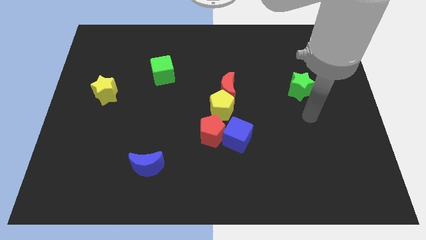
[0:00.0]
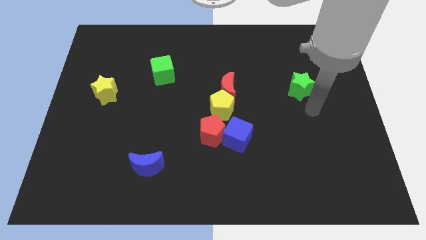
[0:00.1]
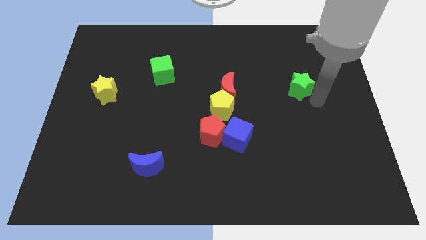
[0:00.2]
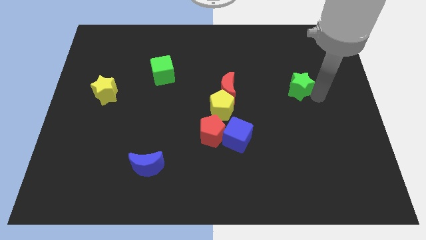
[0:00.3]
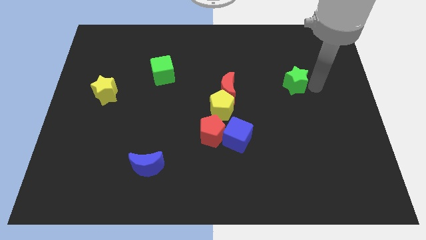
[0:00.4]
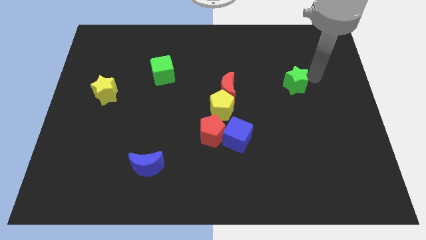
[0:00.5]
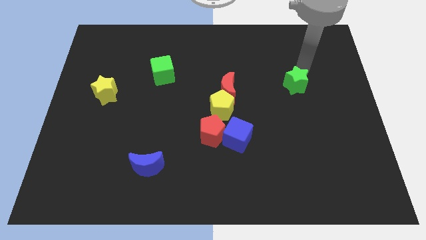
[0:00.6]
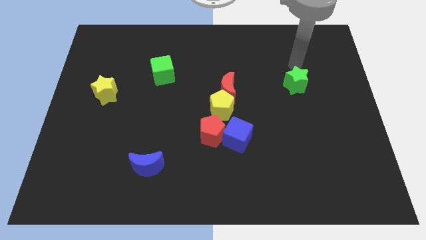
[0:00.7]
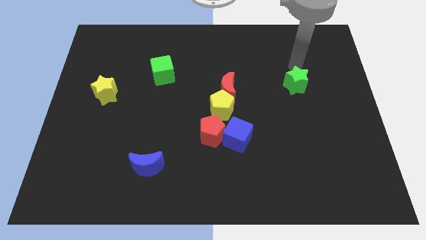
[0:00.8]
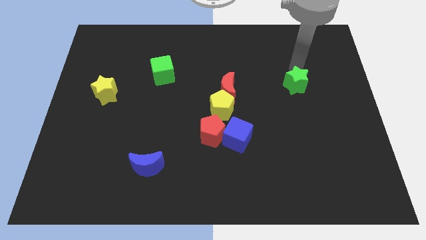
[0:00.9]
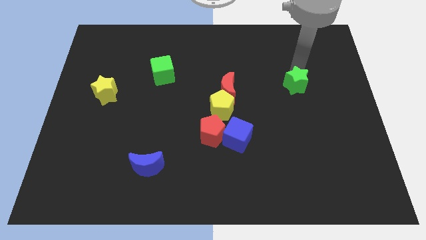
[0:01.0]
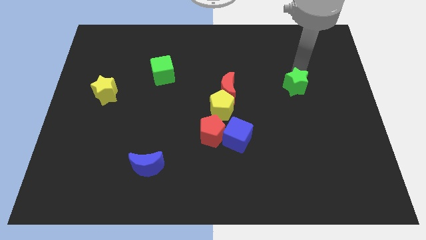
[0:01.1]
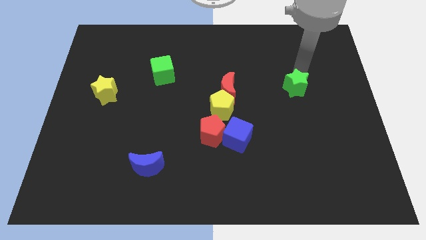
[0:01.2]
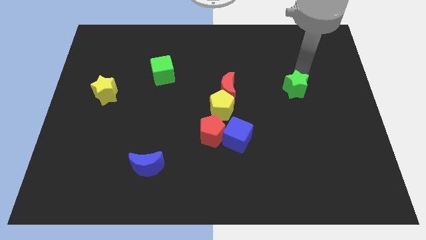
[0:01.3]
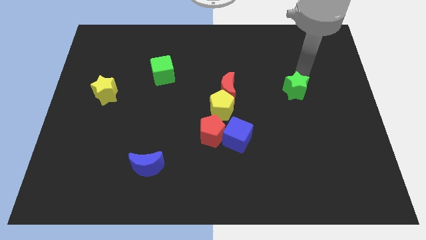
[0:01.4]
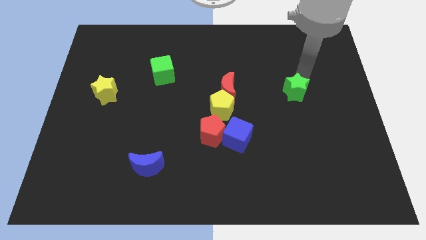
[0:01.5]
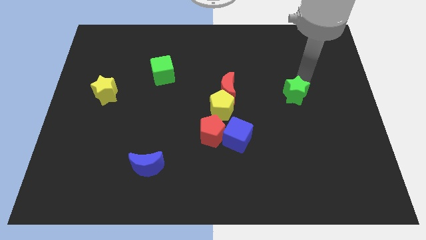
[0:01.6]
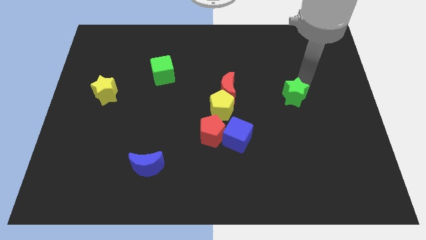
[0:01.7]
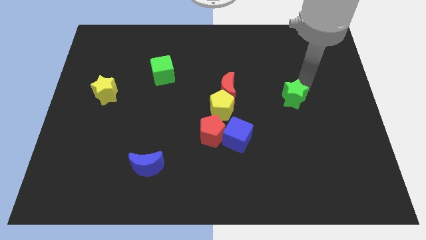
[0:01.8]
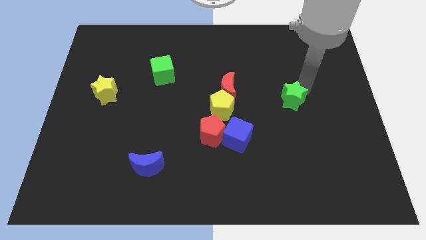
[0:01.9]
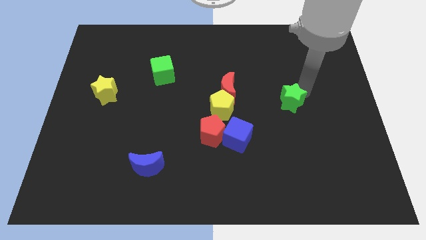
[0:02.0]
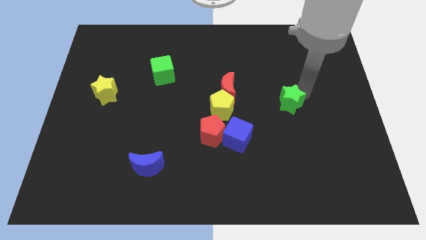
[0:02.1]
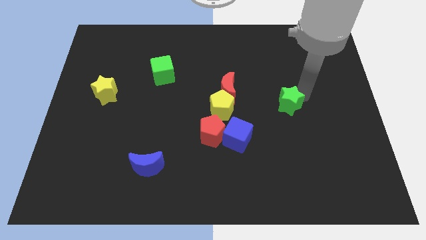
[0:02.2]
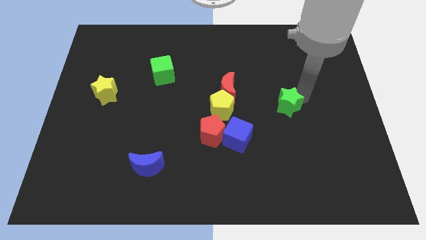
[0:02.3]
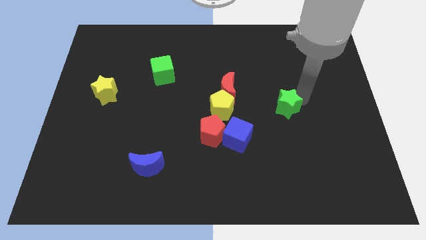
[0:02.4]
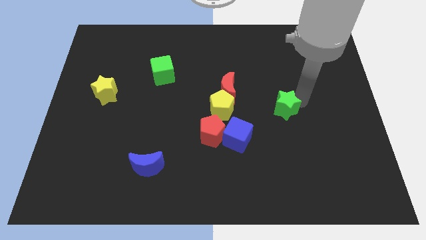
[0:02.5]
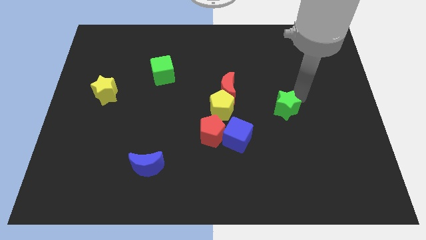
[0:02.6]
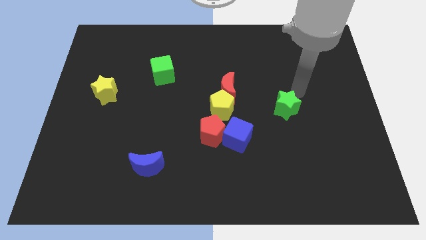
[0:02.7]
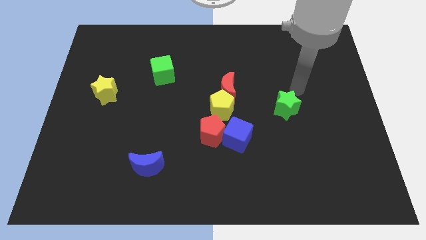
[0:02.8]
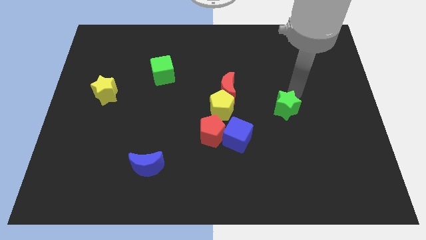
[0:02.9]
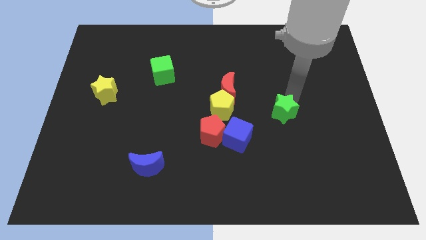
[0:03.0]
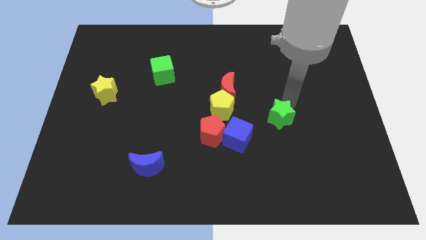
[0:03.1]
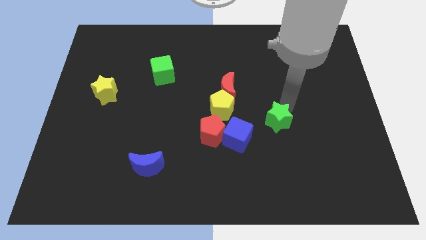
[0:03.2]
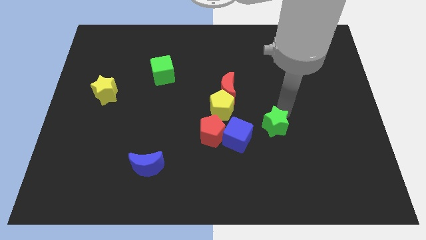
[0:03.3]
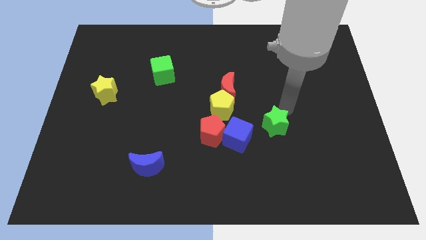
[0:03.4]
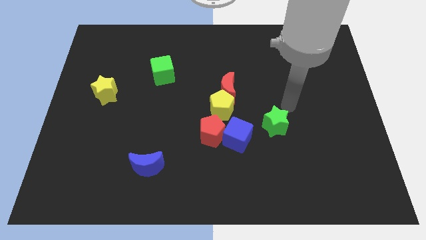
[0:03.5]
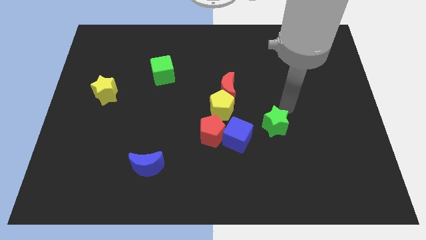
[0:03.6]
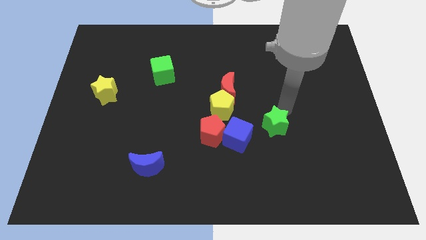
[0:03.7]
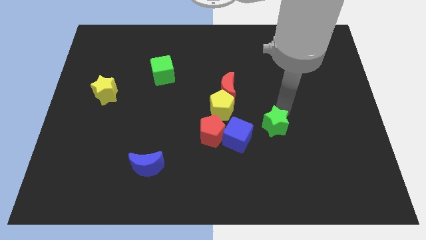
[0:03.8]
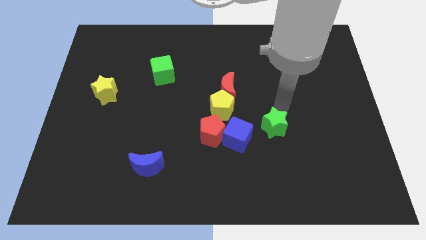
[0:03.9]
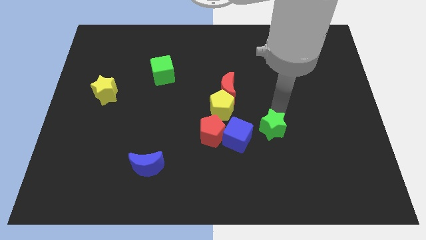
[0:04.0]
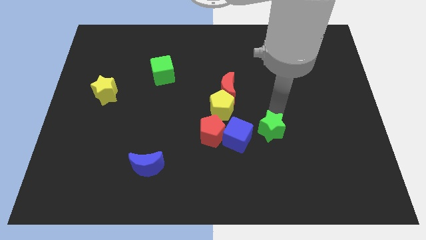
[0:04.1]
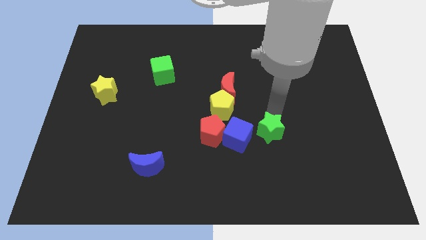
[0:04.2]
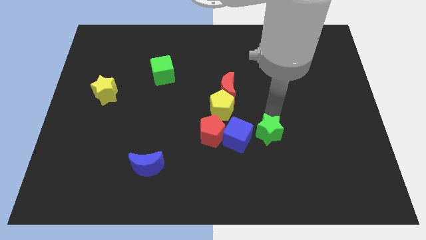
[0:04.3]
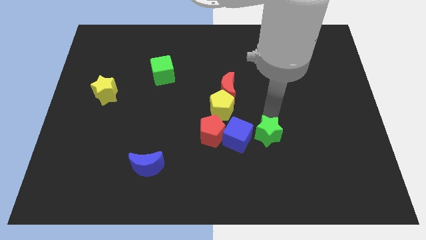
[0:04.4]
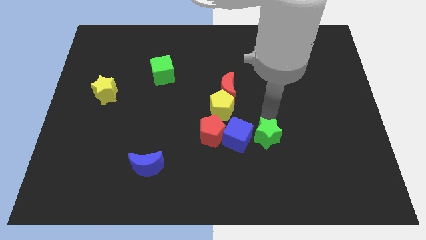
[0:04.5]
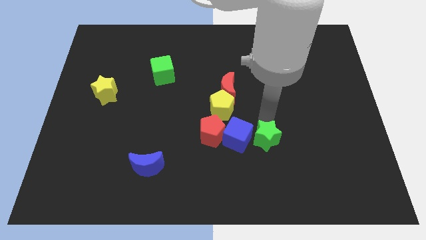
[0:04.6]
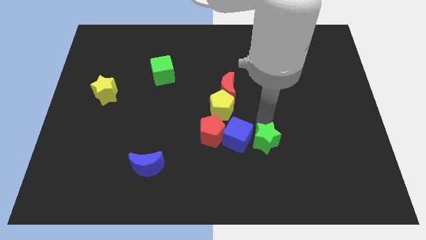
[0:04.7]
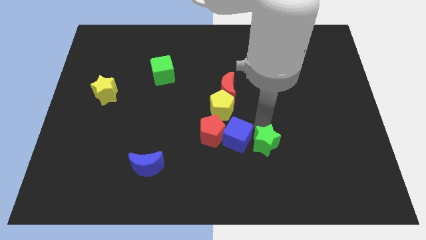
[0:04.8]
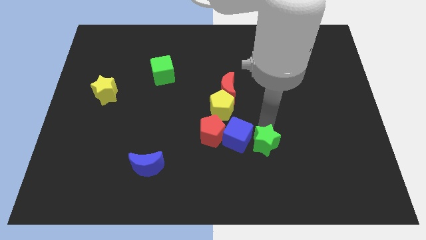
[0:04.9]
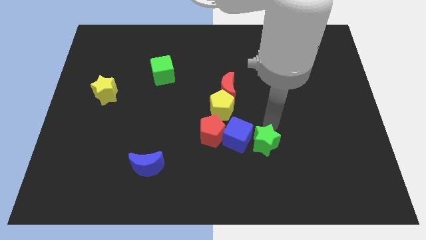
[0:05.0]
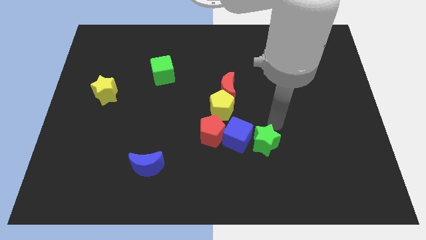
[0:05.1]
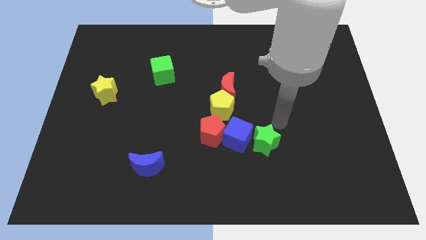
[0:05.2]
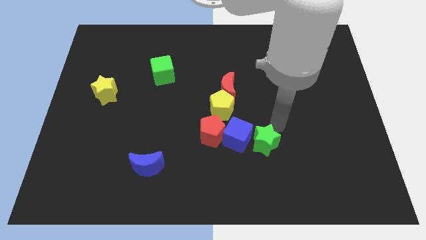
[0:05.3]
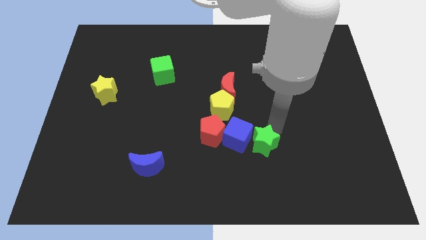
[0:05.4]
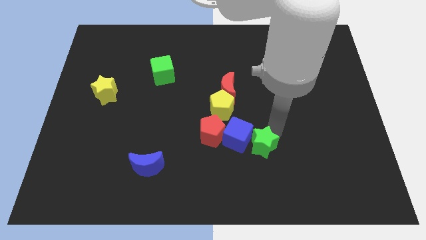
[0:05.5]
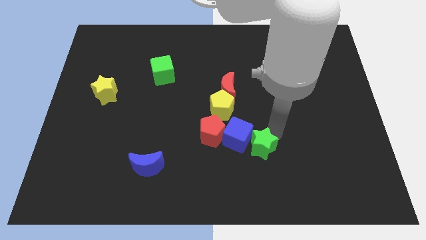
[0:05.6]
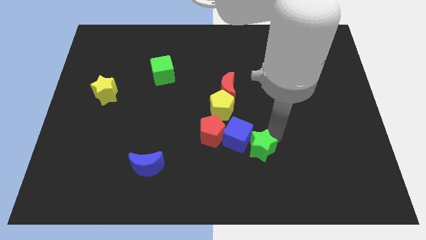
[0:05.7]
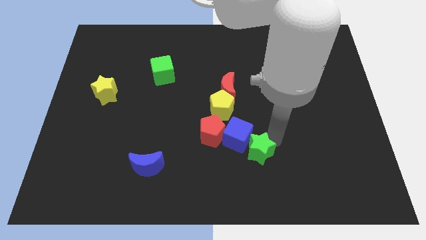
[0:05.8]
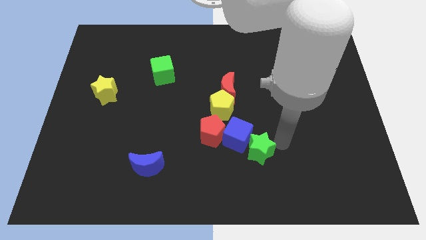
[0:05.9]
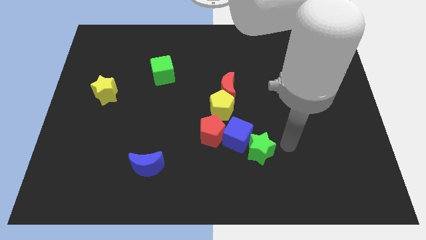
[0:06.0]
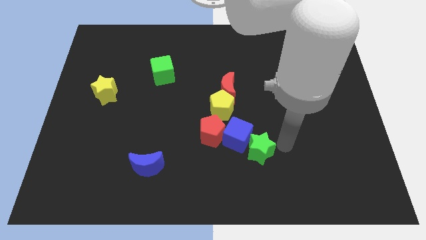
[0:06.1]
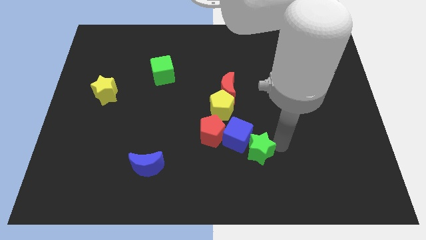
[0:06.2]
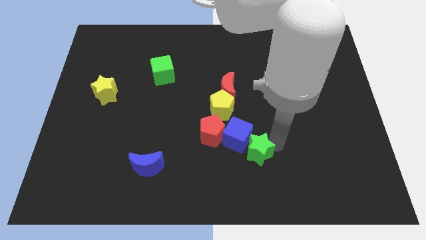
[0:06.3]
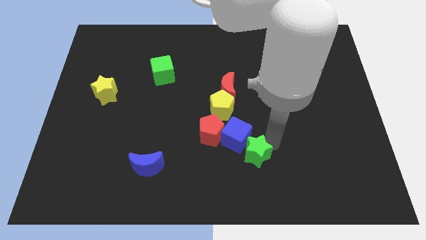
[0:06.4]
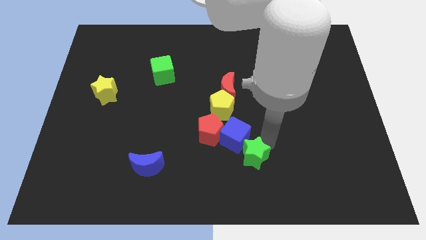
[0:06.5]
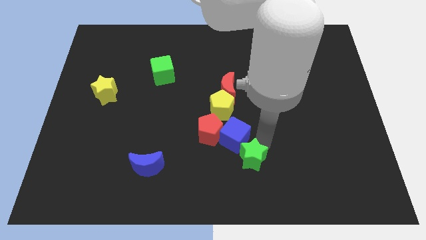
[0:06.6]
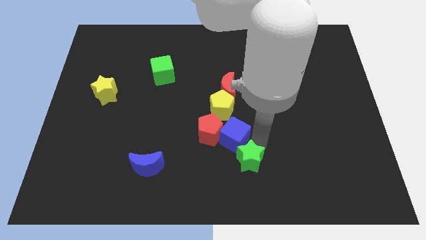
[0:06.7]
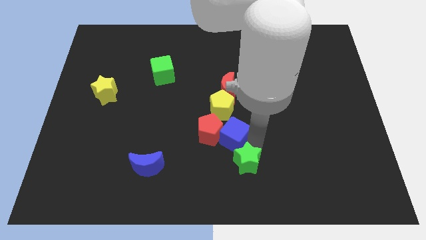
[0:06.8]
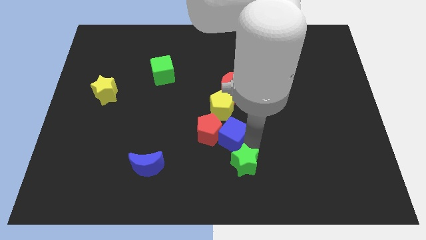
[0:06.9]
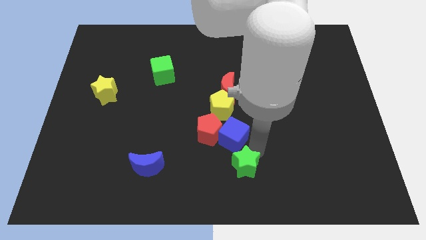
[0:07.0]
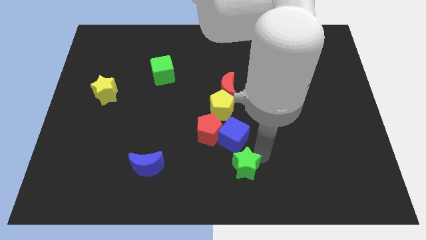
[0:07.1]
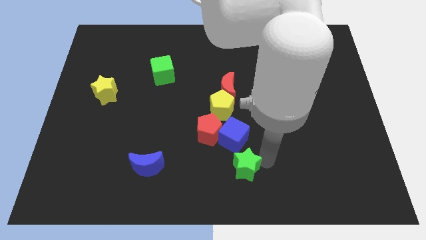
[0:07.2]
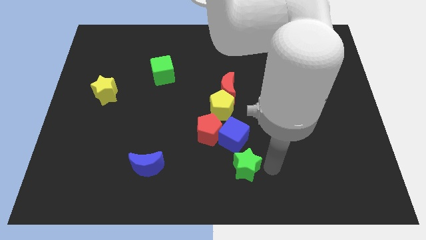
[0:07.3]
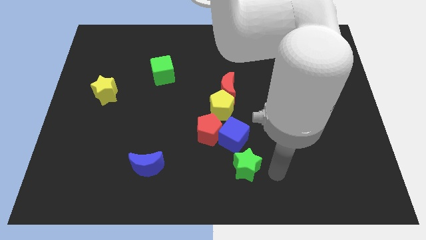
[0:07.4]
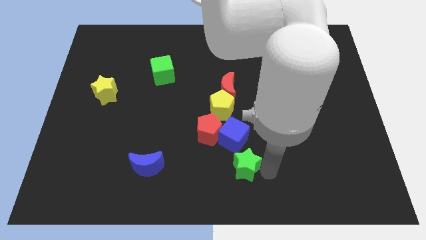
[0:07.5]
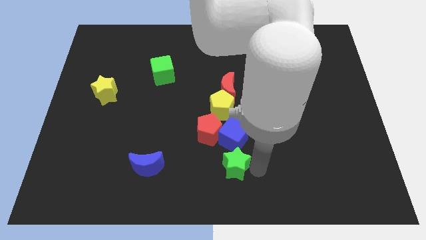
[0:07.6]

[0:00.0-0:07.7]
slide the green star to the bottom left side of the blue cube
